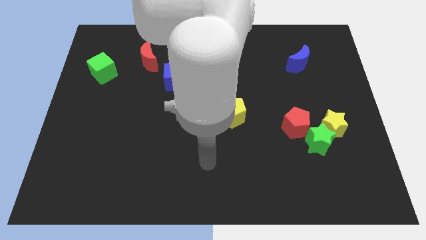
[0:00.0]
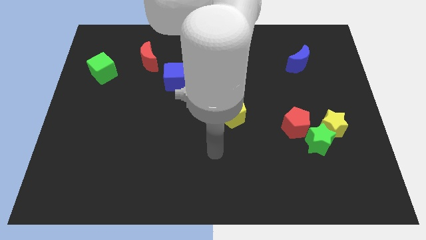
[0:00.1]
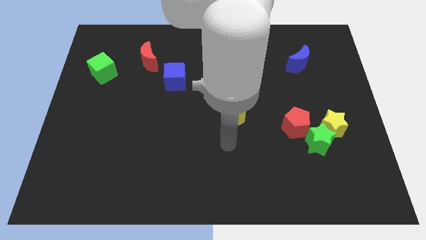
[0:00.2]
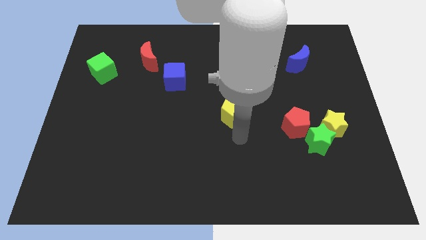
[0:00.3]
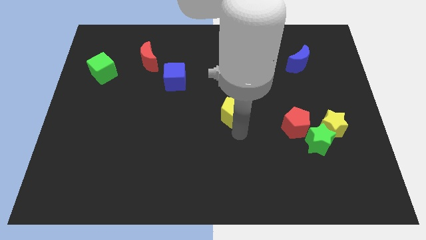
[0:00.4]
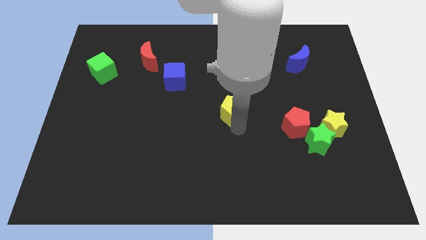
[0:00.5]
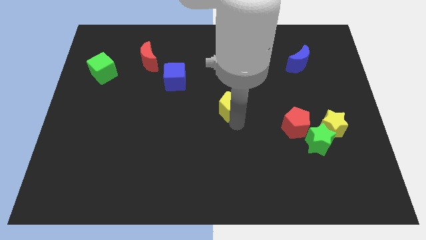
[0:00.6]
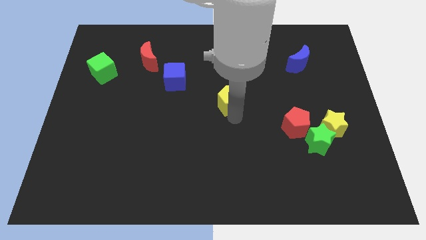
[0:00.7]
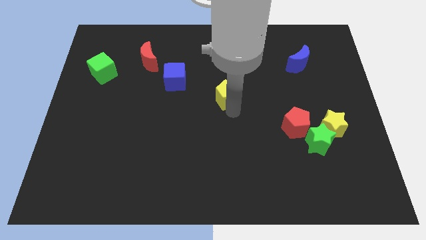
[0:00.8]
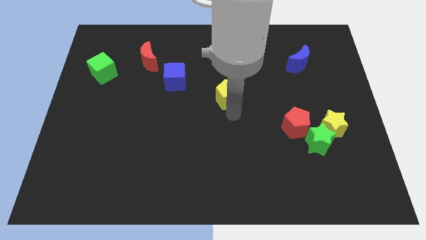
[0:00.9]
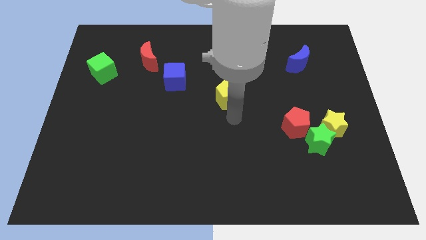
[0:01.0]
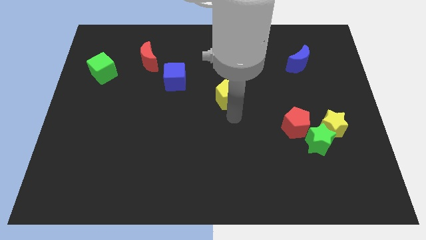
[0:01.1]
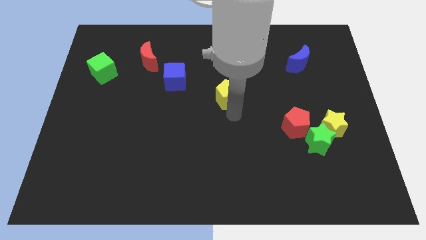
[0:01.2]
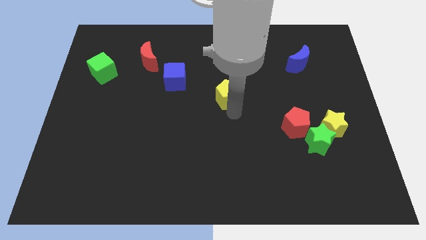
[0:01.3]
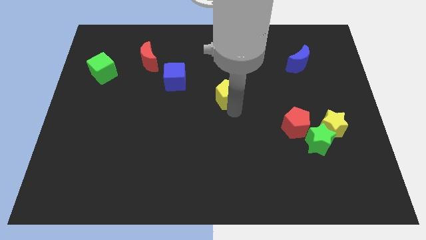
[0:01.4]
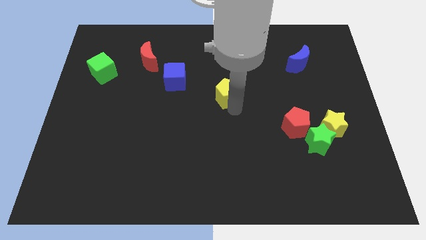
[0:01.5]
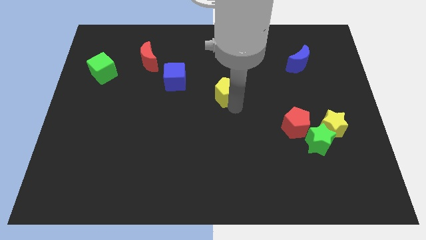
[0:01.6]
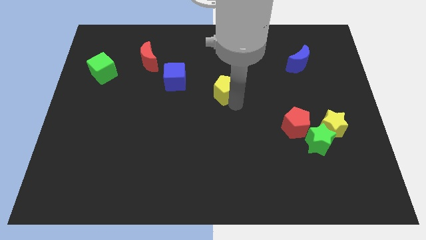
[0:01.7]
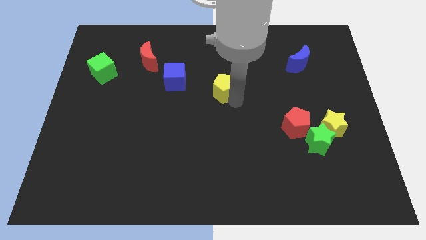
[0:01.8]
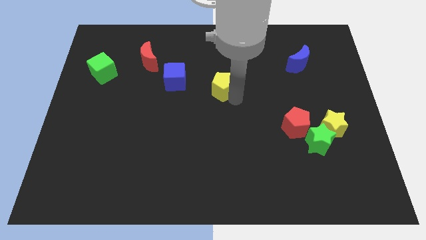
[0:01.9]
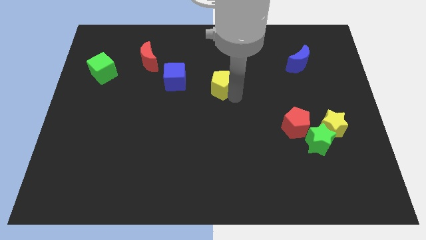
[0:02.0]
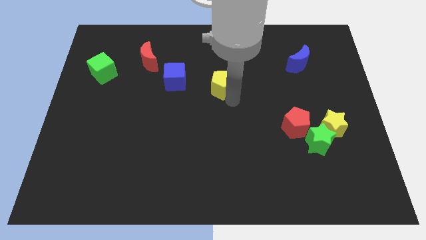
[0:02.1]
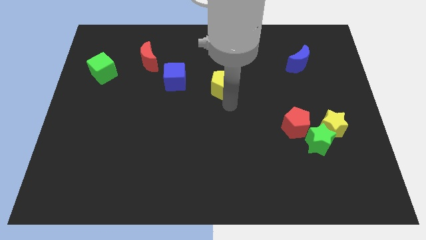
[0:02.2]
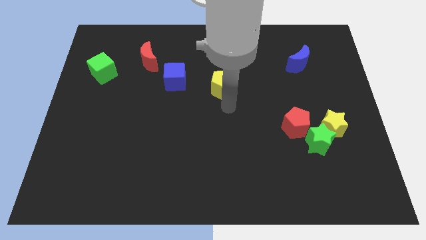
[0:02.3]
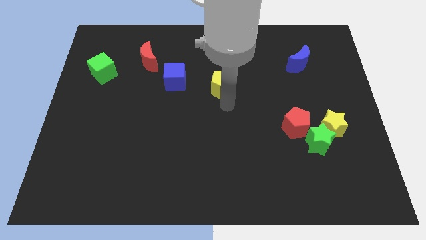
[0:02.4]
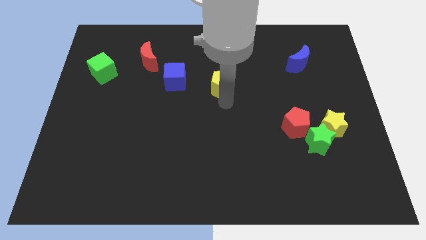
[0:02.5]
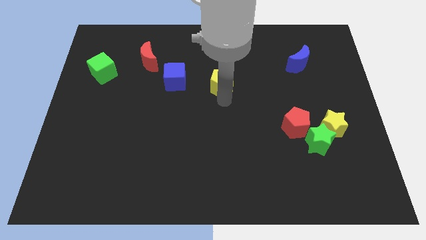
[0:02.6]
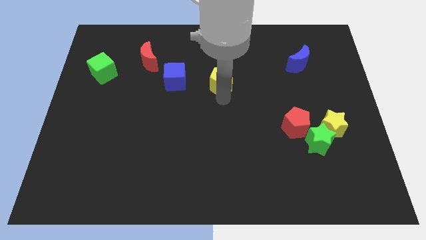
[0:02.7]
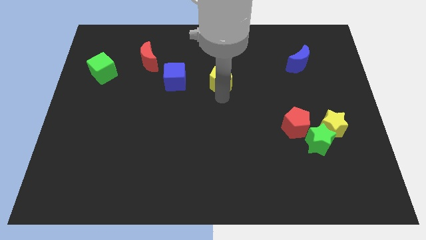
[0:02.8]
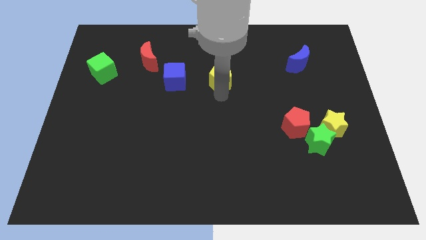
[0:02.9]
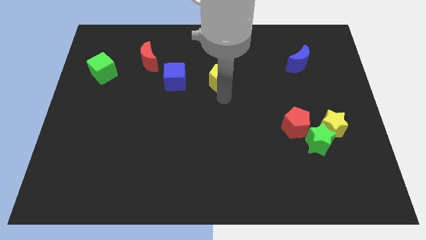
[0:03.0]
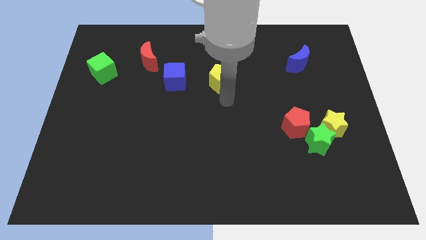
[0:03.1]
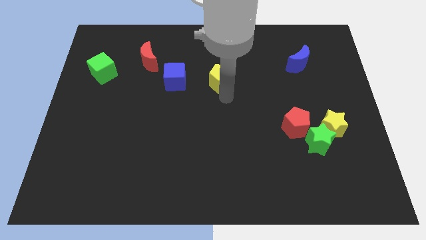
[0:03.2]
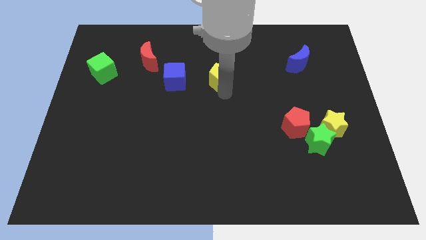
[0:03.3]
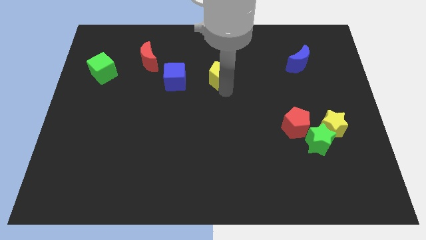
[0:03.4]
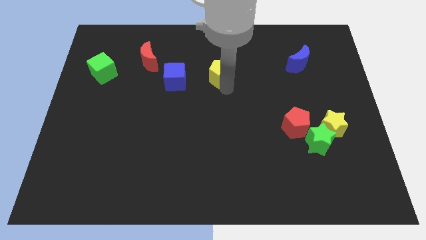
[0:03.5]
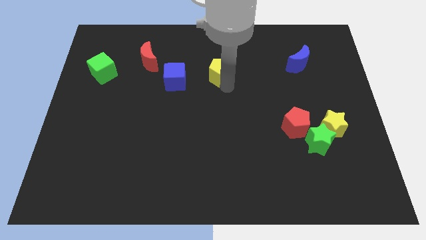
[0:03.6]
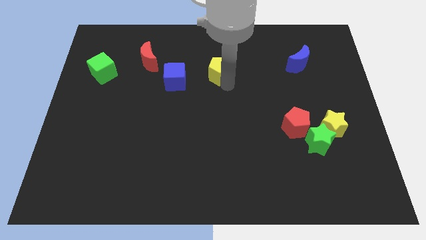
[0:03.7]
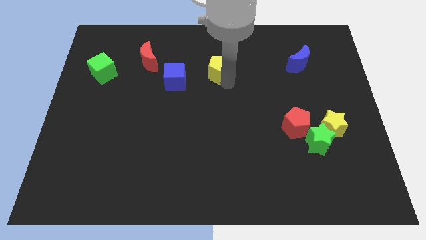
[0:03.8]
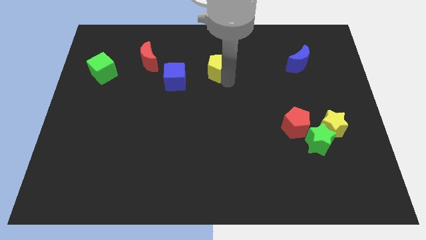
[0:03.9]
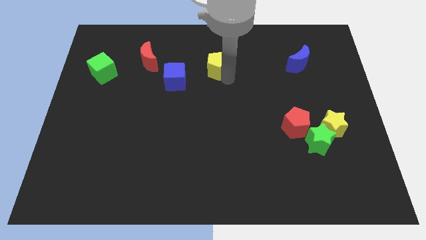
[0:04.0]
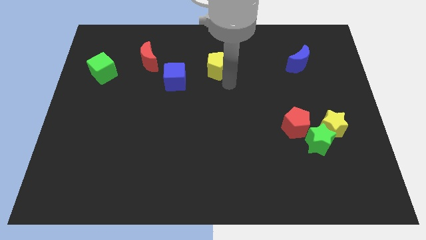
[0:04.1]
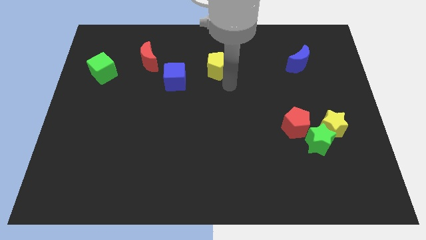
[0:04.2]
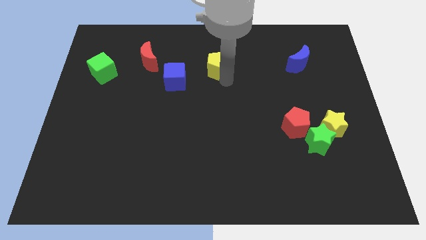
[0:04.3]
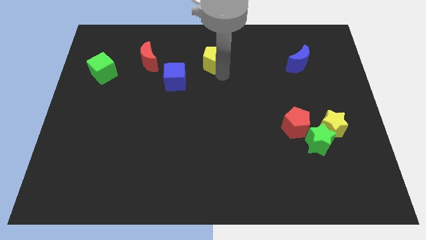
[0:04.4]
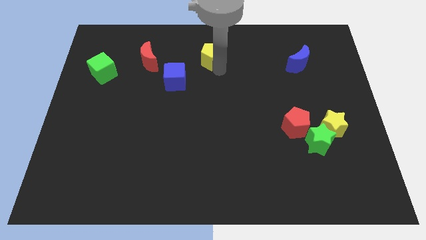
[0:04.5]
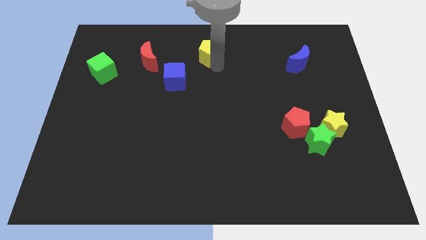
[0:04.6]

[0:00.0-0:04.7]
move the yellow pentagon to the top side

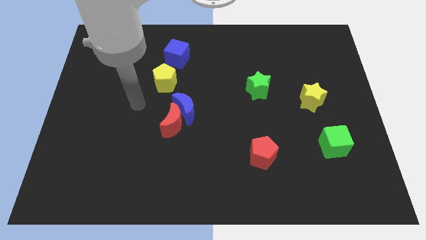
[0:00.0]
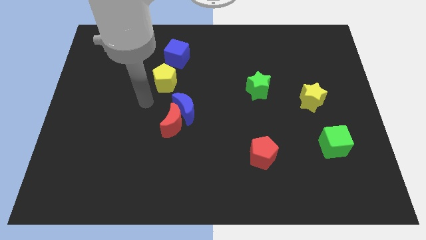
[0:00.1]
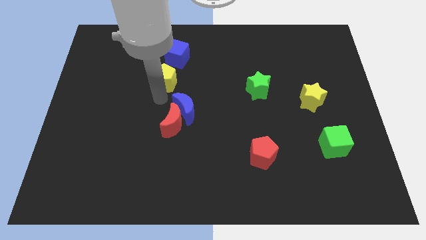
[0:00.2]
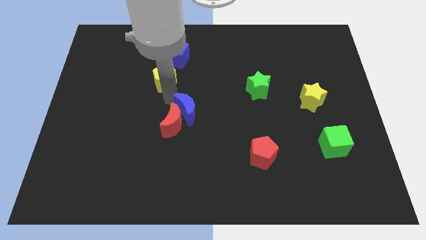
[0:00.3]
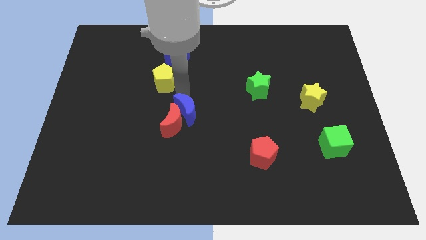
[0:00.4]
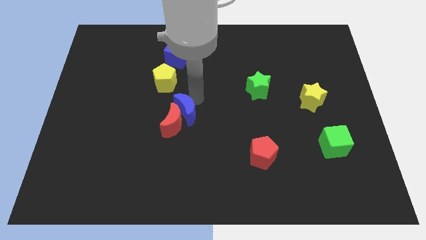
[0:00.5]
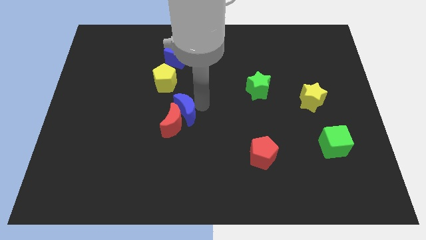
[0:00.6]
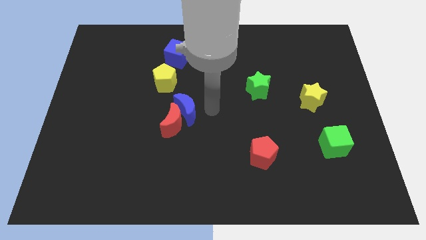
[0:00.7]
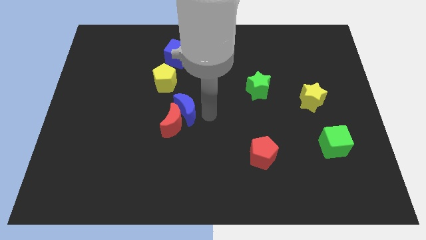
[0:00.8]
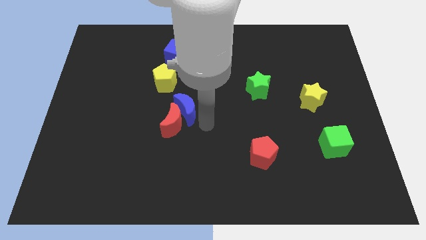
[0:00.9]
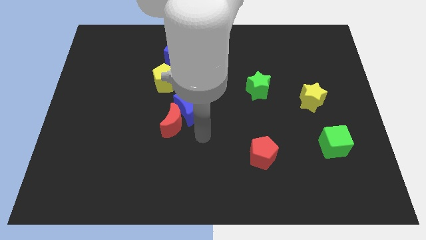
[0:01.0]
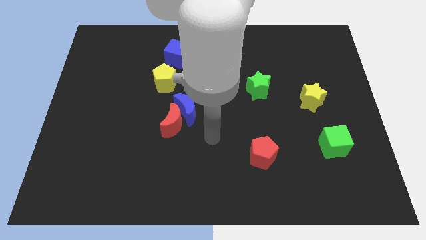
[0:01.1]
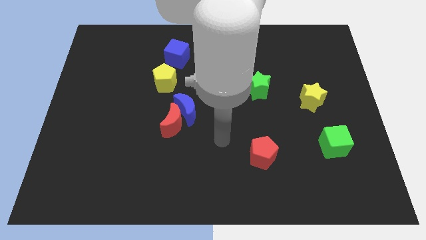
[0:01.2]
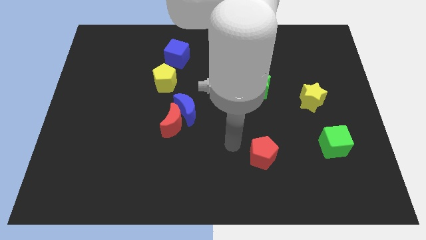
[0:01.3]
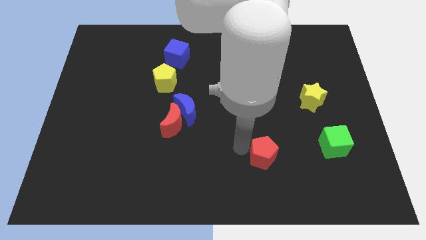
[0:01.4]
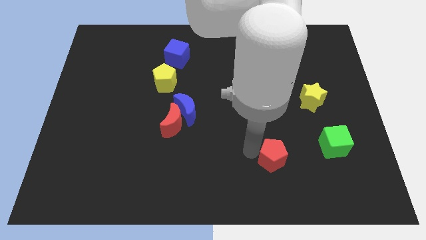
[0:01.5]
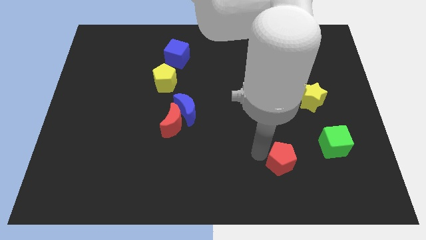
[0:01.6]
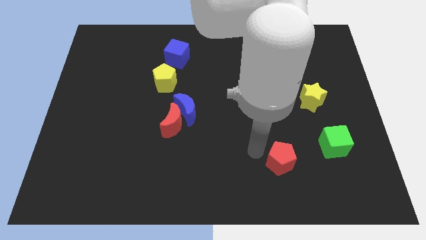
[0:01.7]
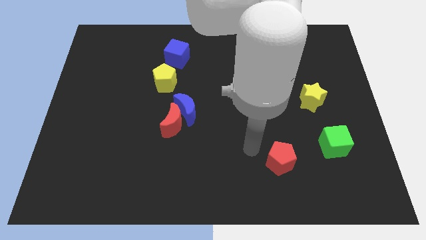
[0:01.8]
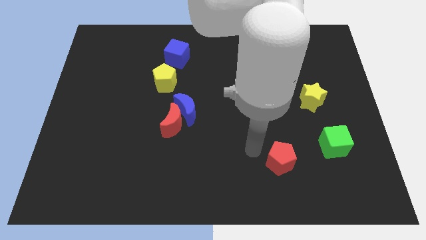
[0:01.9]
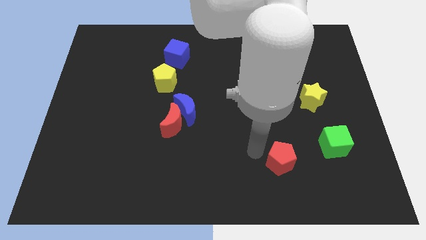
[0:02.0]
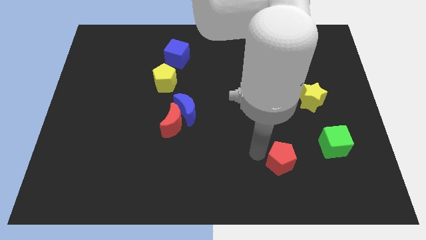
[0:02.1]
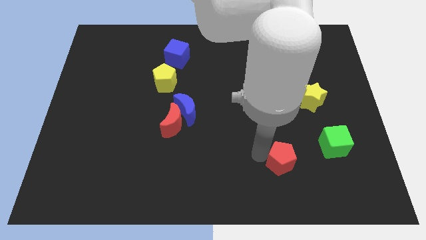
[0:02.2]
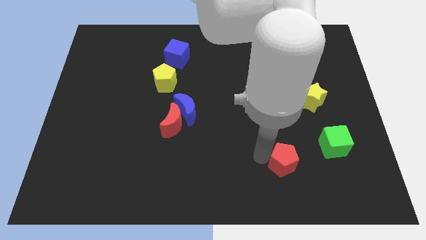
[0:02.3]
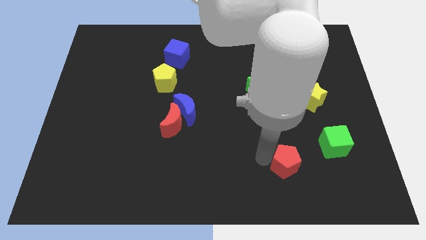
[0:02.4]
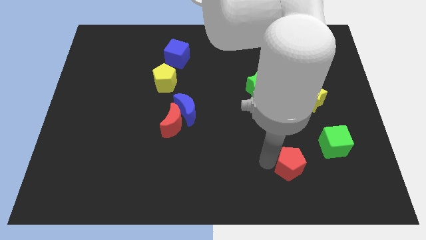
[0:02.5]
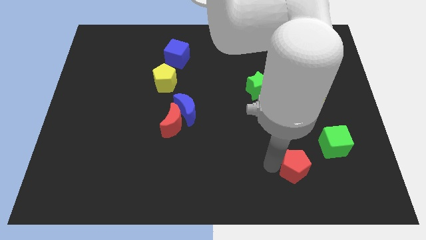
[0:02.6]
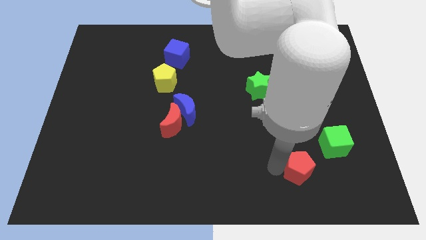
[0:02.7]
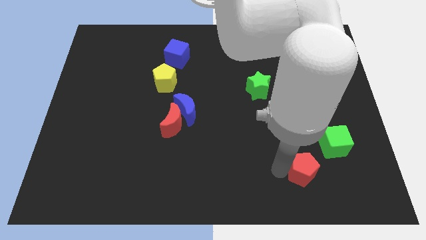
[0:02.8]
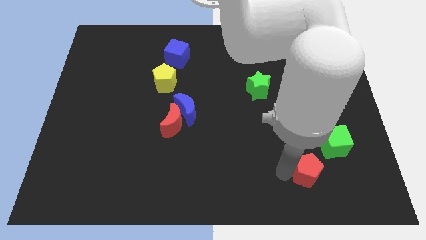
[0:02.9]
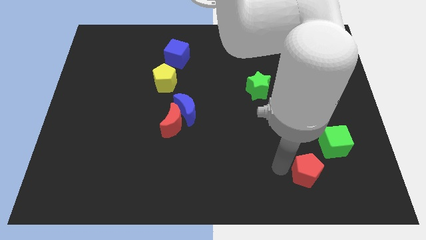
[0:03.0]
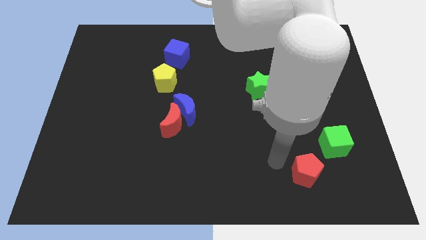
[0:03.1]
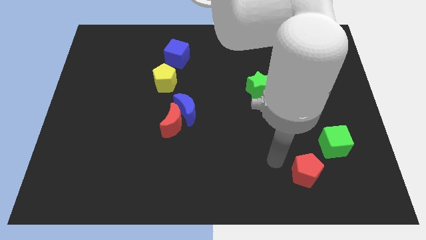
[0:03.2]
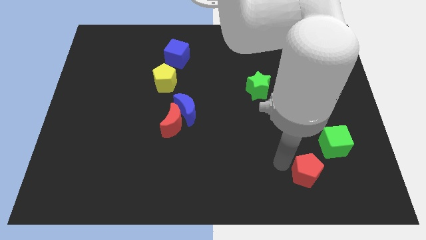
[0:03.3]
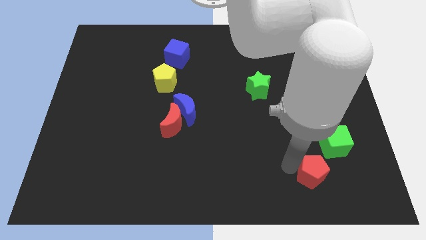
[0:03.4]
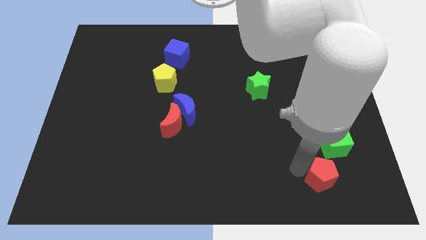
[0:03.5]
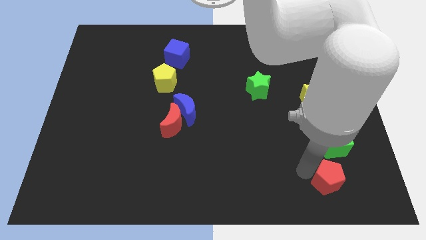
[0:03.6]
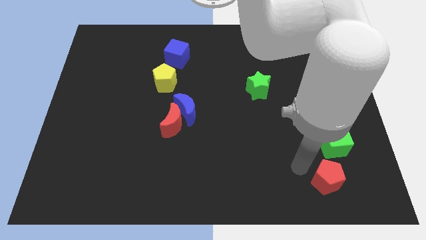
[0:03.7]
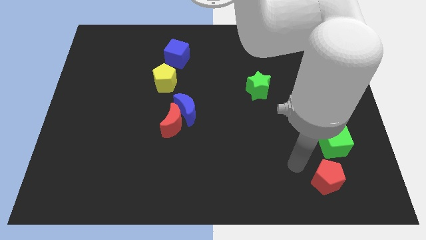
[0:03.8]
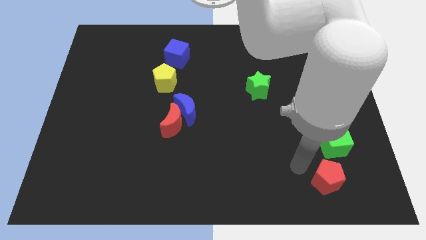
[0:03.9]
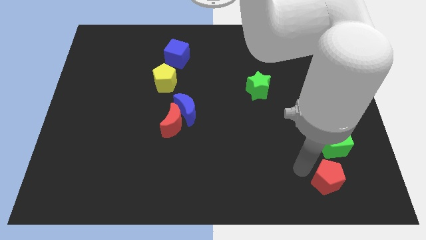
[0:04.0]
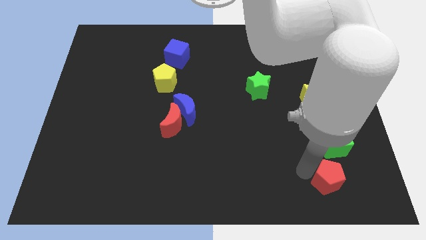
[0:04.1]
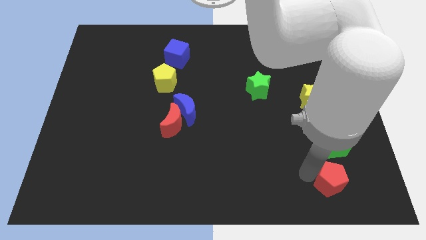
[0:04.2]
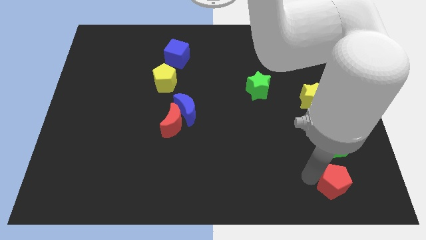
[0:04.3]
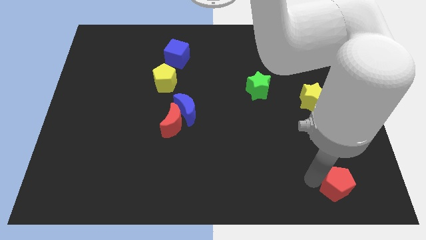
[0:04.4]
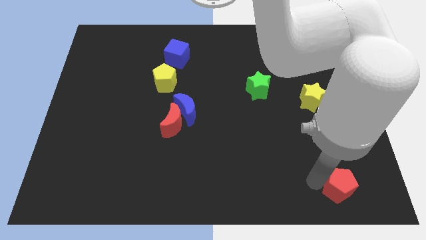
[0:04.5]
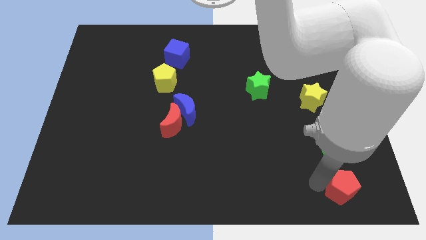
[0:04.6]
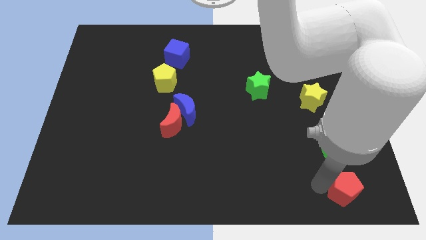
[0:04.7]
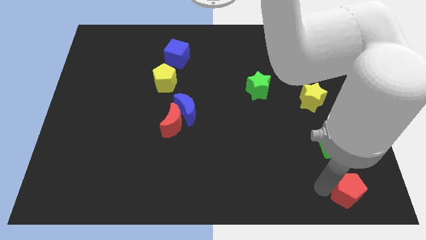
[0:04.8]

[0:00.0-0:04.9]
put the red pentagon to the lower right corner
